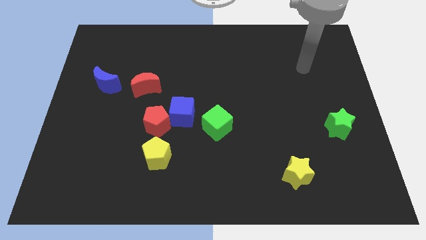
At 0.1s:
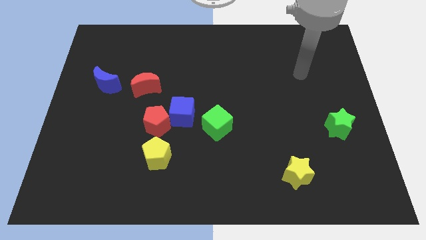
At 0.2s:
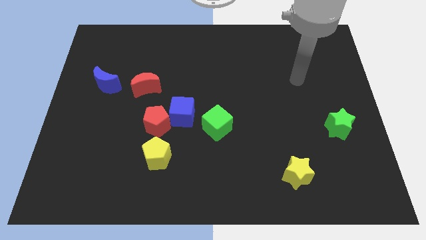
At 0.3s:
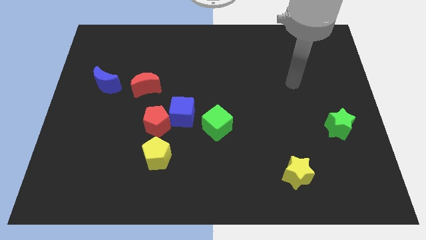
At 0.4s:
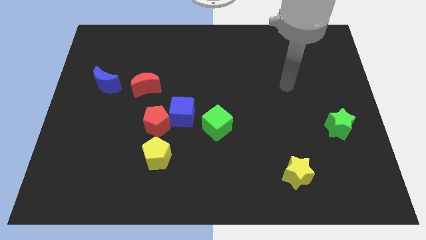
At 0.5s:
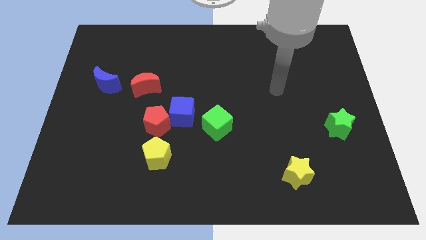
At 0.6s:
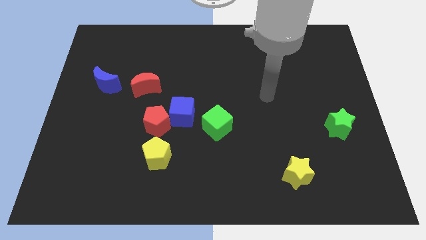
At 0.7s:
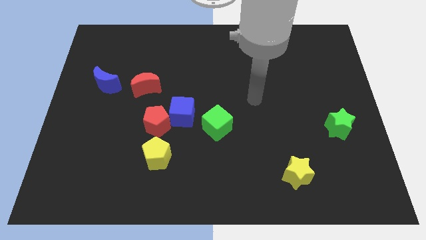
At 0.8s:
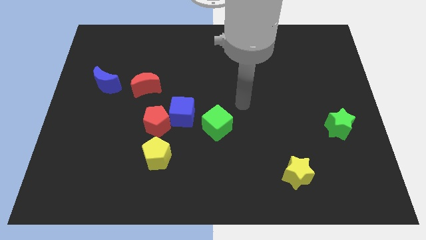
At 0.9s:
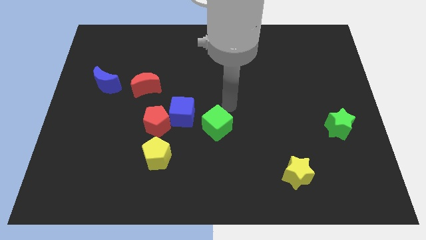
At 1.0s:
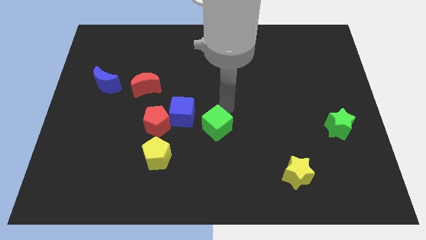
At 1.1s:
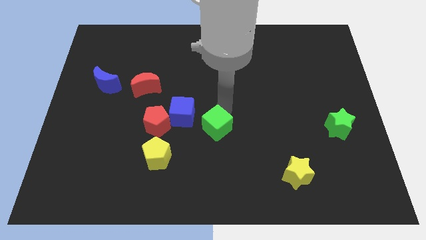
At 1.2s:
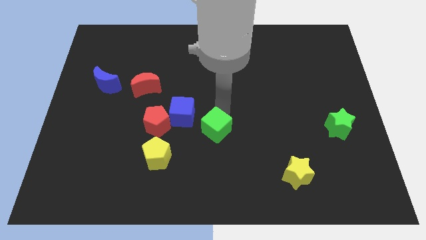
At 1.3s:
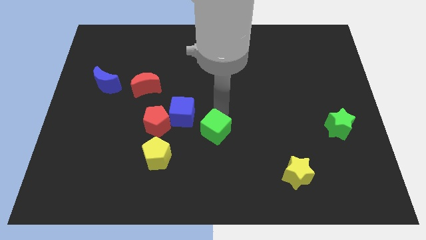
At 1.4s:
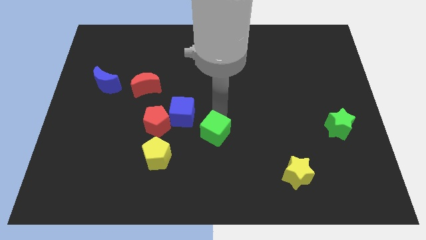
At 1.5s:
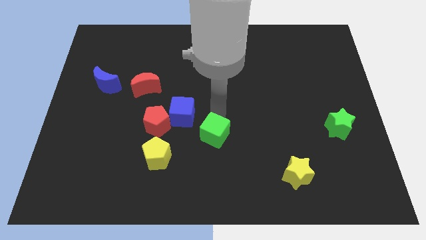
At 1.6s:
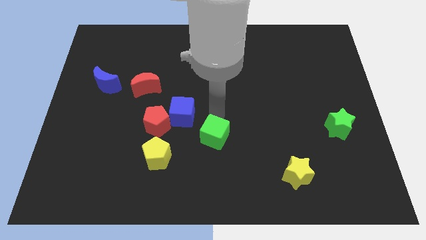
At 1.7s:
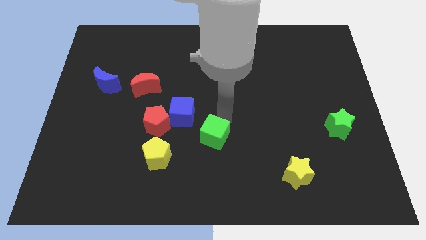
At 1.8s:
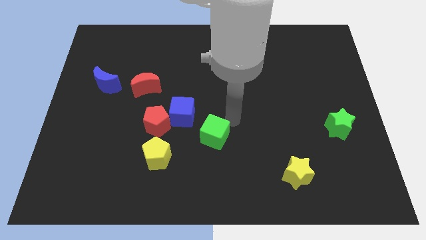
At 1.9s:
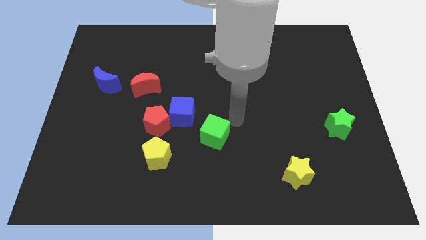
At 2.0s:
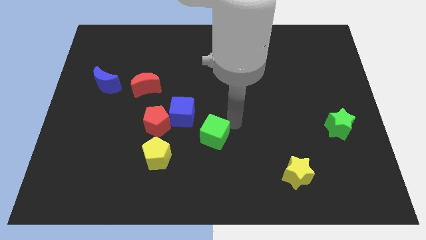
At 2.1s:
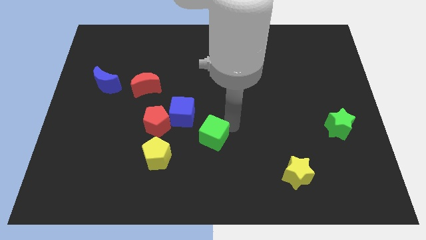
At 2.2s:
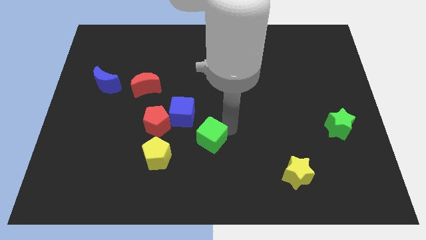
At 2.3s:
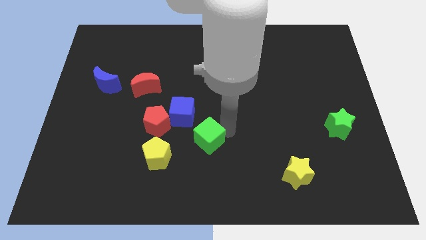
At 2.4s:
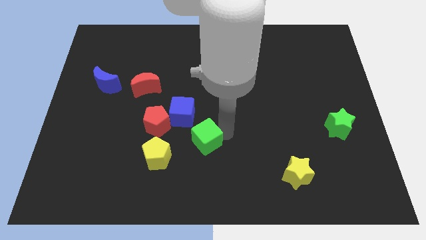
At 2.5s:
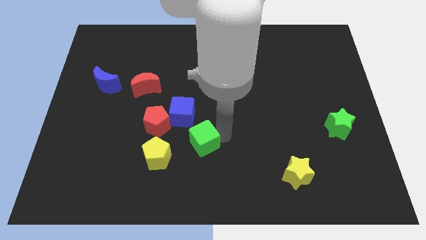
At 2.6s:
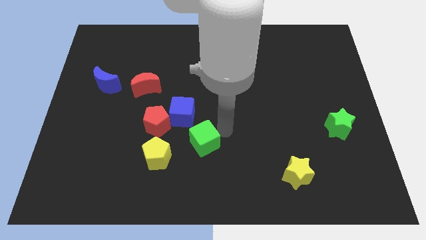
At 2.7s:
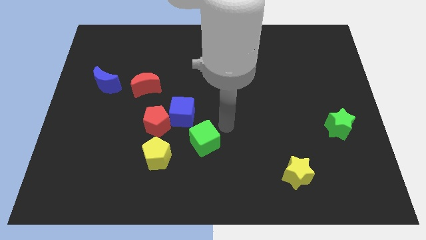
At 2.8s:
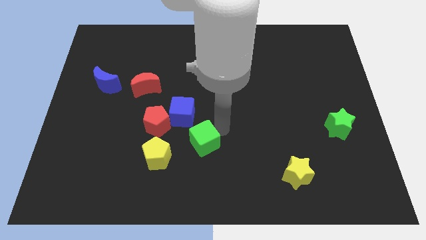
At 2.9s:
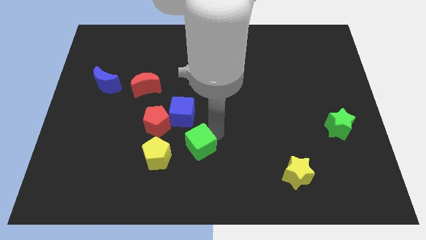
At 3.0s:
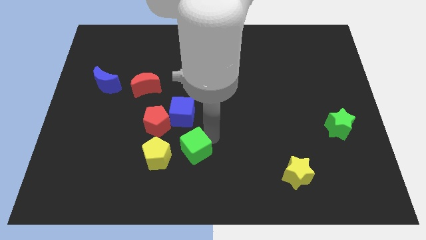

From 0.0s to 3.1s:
slightly push the green cube diagonally downwards and to the left

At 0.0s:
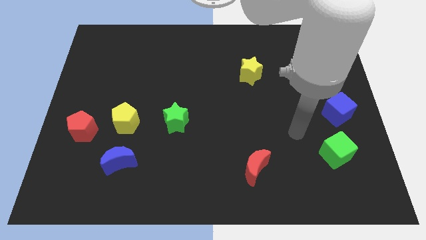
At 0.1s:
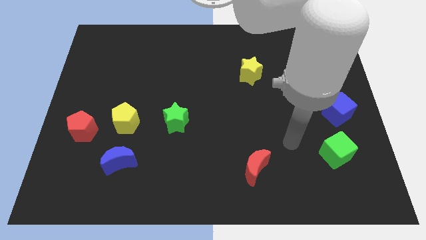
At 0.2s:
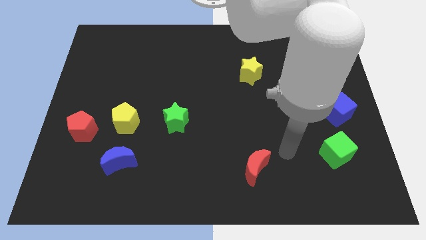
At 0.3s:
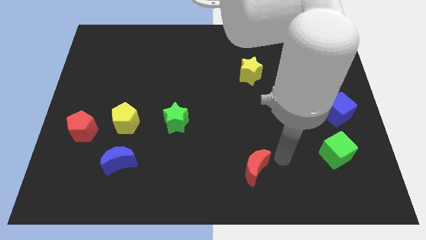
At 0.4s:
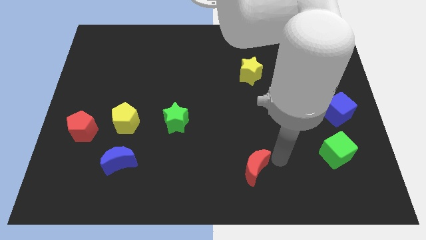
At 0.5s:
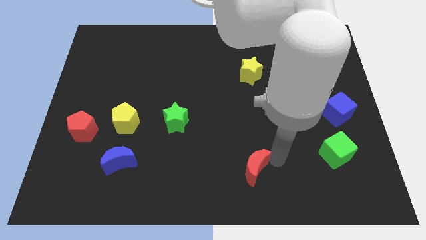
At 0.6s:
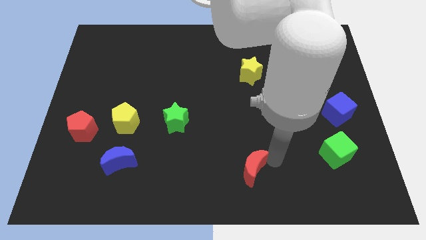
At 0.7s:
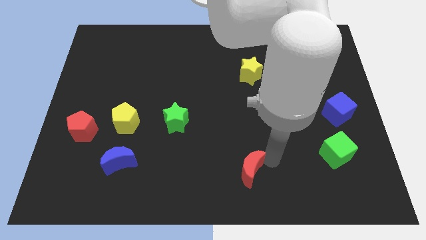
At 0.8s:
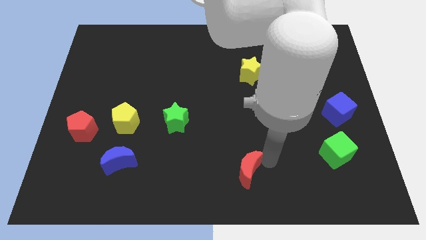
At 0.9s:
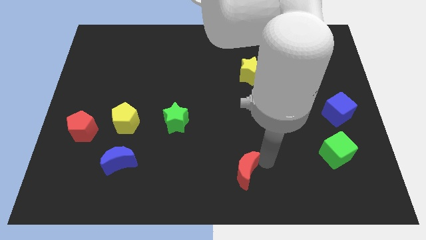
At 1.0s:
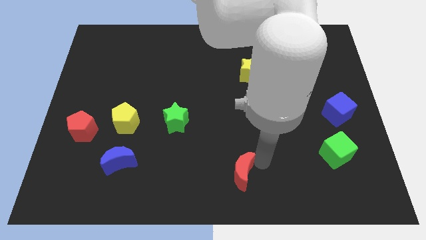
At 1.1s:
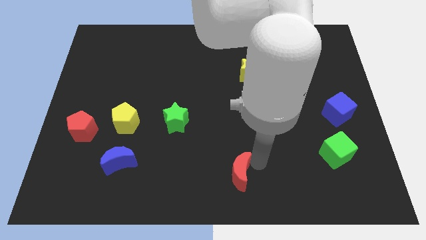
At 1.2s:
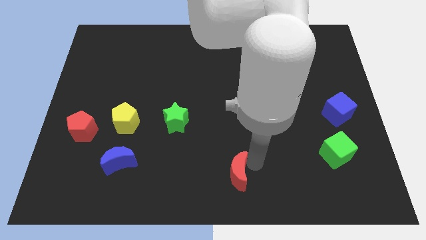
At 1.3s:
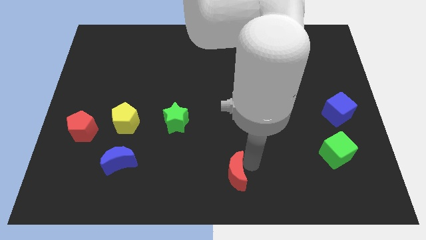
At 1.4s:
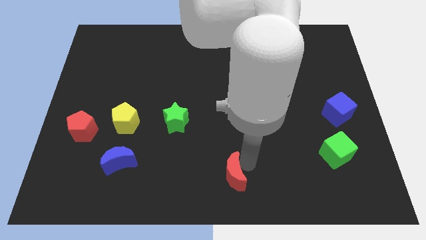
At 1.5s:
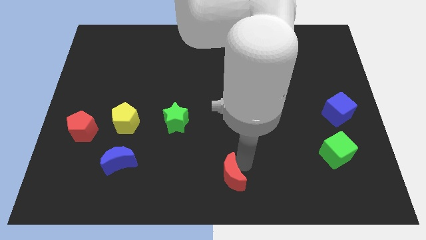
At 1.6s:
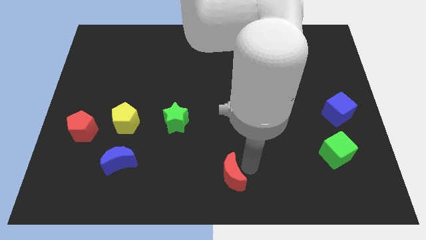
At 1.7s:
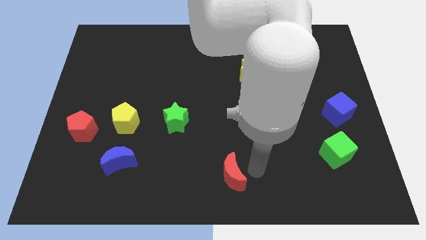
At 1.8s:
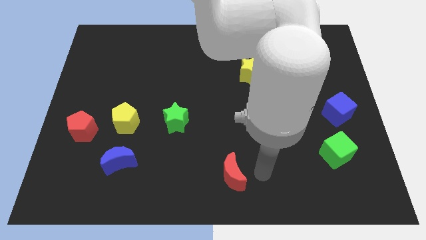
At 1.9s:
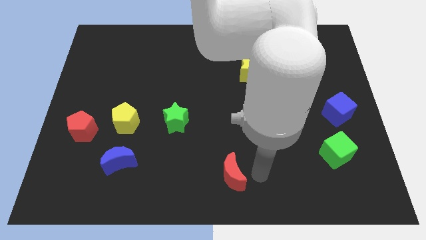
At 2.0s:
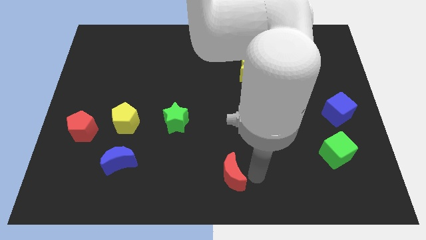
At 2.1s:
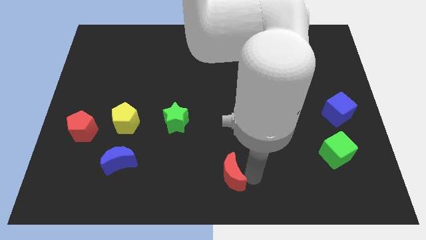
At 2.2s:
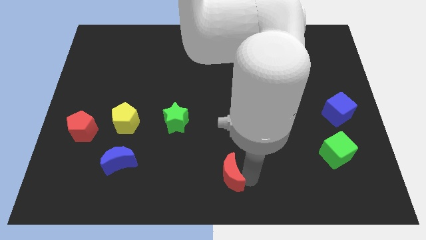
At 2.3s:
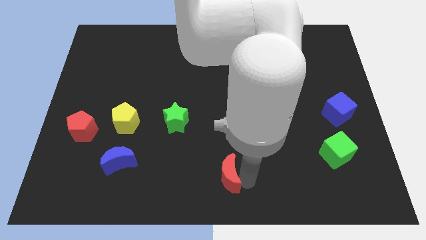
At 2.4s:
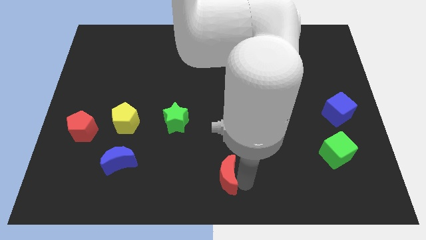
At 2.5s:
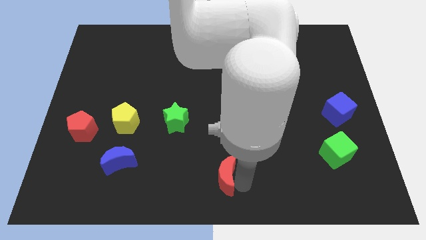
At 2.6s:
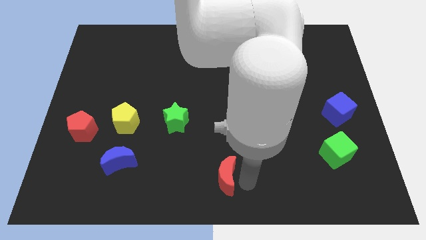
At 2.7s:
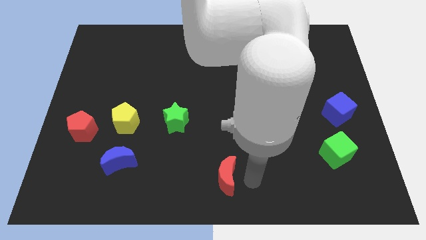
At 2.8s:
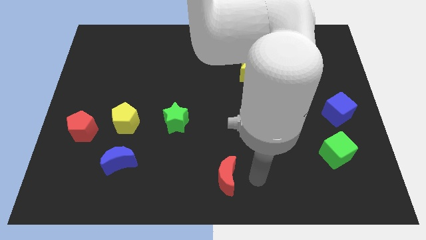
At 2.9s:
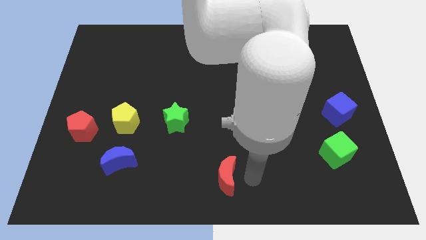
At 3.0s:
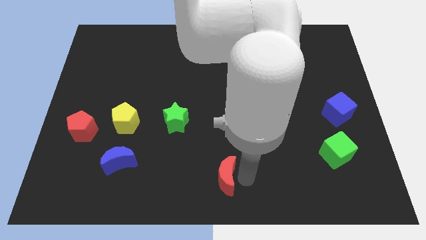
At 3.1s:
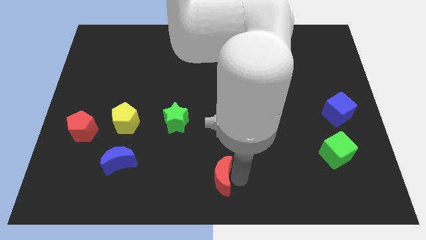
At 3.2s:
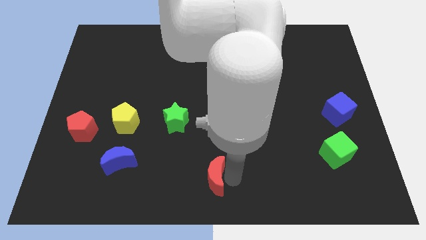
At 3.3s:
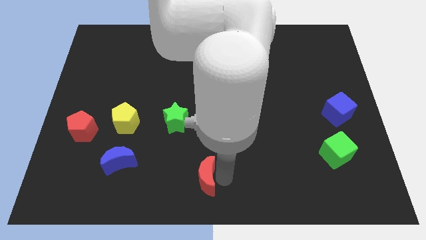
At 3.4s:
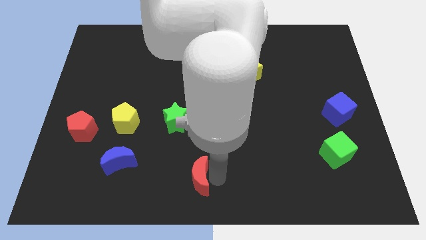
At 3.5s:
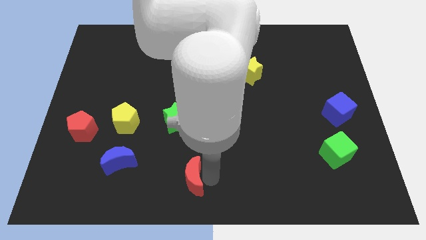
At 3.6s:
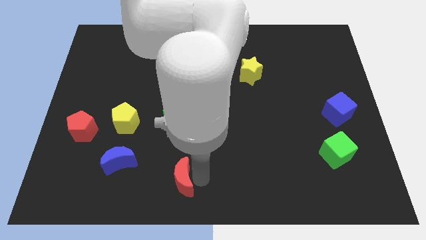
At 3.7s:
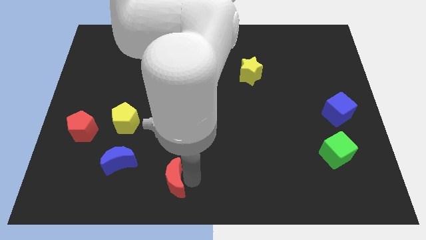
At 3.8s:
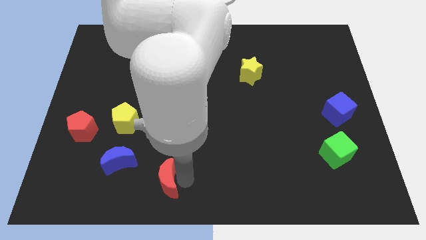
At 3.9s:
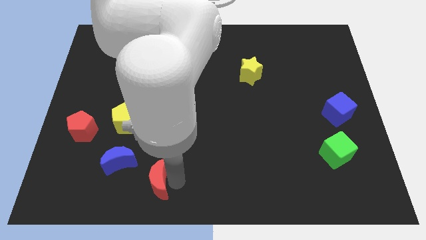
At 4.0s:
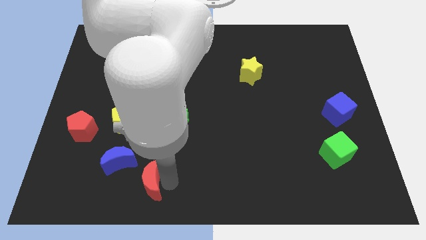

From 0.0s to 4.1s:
slide the red moon left

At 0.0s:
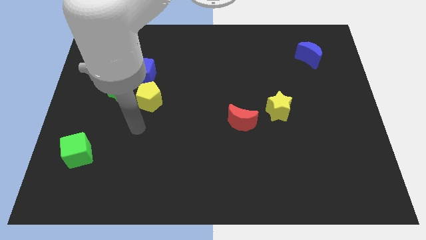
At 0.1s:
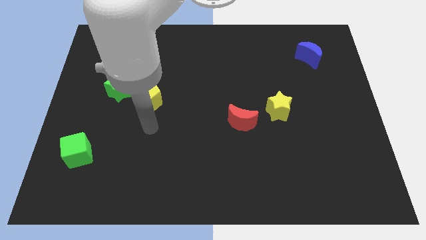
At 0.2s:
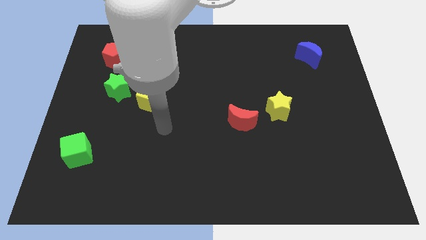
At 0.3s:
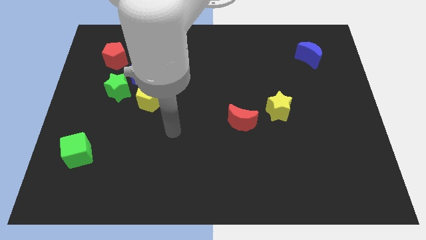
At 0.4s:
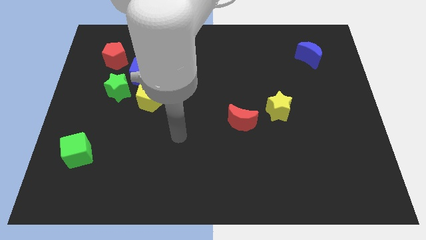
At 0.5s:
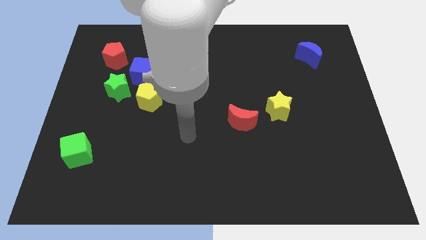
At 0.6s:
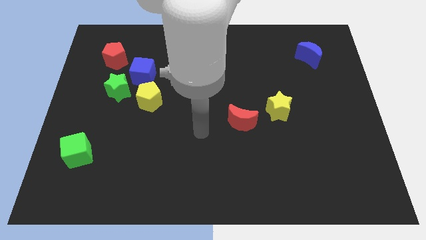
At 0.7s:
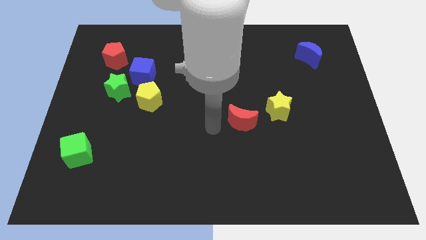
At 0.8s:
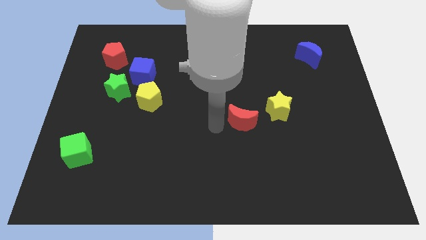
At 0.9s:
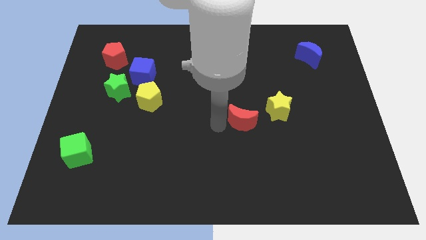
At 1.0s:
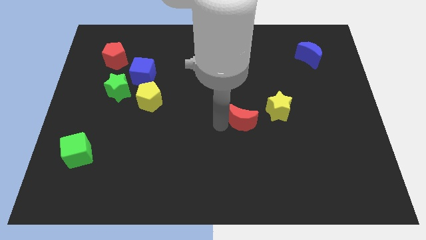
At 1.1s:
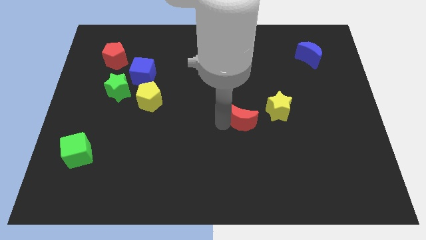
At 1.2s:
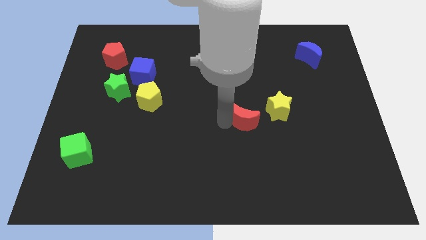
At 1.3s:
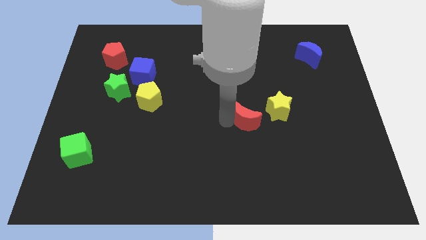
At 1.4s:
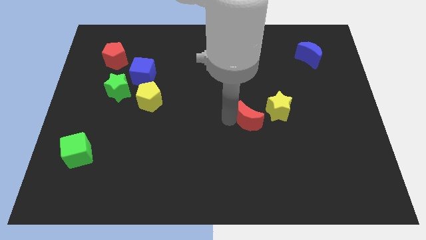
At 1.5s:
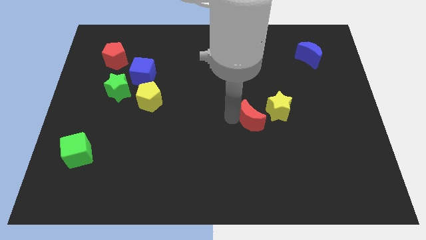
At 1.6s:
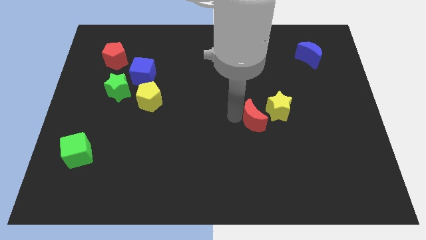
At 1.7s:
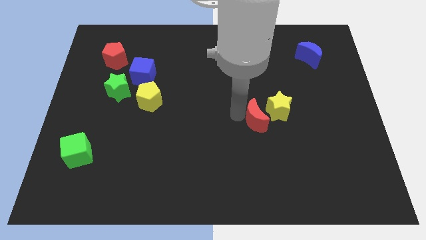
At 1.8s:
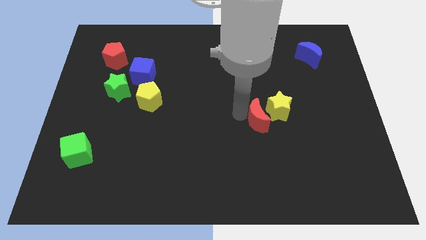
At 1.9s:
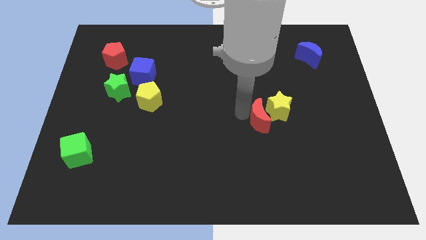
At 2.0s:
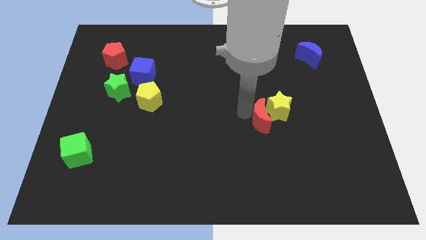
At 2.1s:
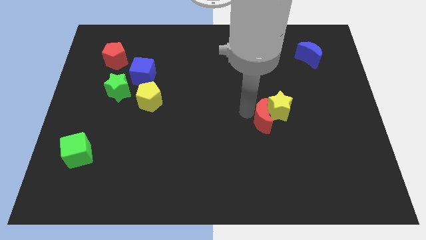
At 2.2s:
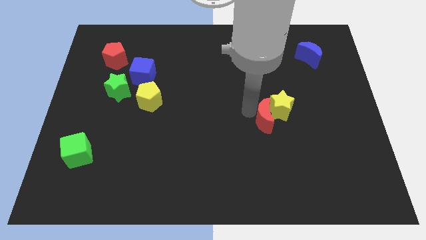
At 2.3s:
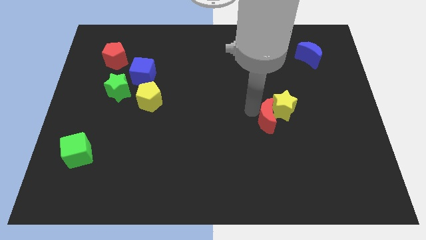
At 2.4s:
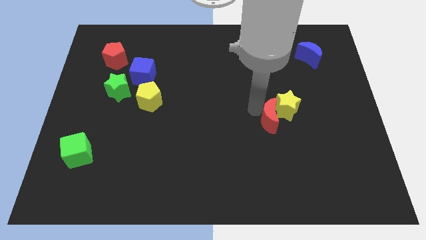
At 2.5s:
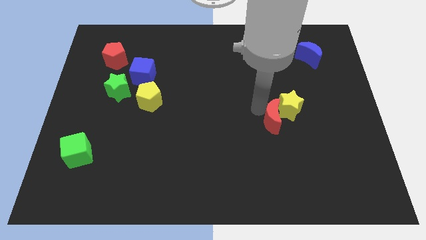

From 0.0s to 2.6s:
push the red moon to the right slightly
